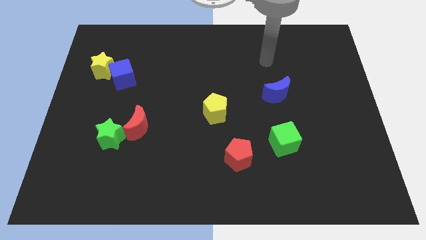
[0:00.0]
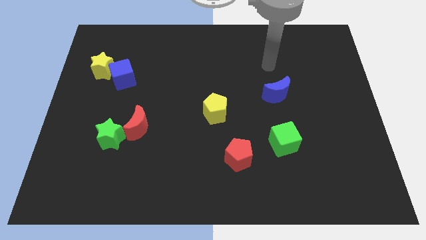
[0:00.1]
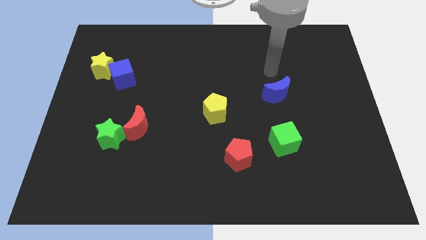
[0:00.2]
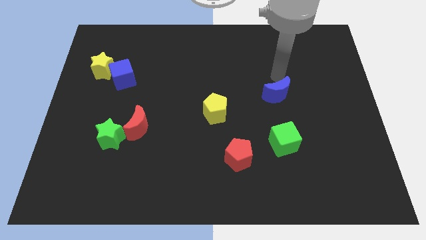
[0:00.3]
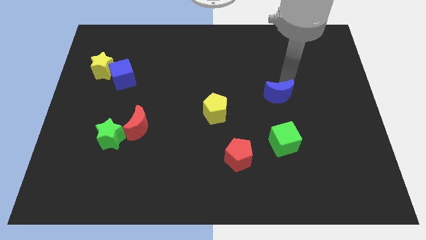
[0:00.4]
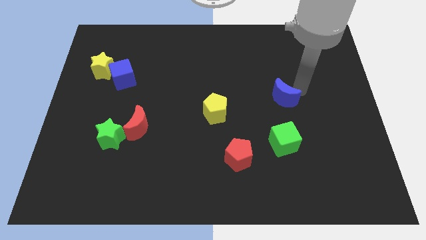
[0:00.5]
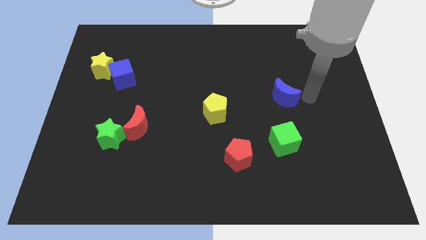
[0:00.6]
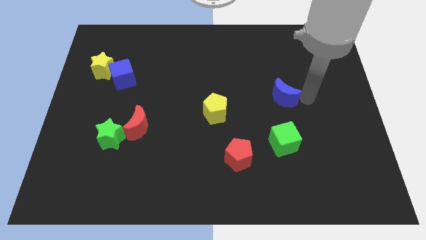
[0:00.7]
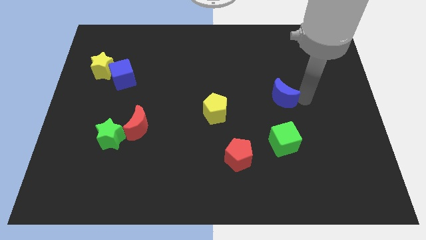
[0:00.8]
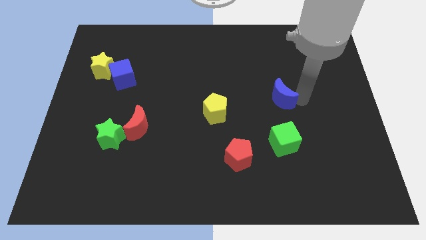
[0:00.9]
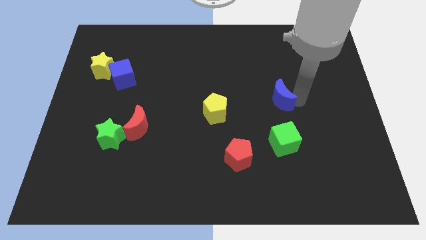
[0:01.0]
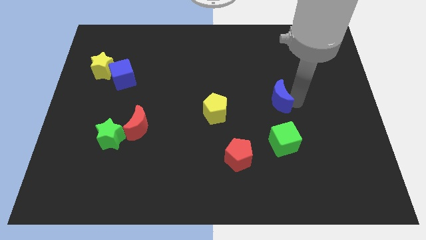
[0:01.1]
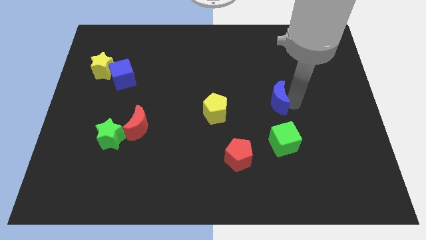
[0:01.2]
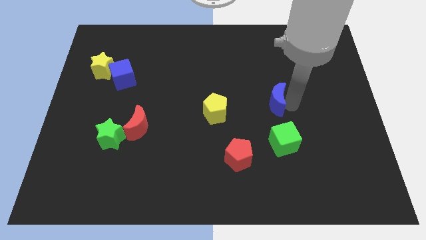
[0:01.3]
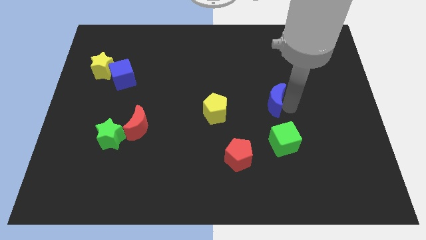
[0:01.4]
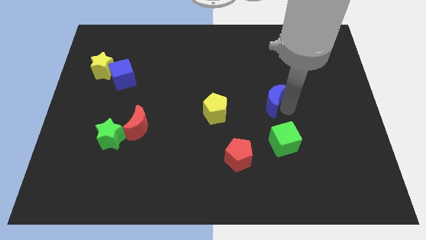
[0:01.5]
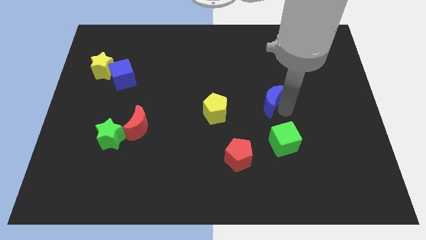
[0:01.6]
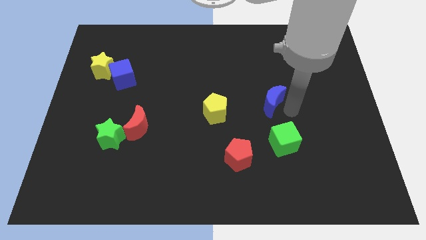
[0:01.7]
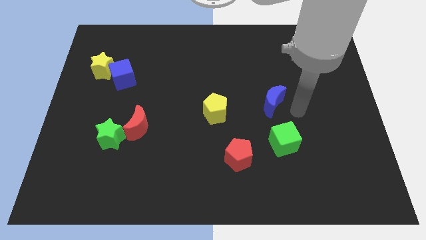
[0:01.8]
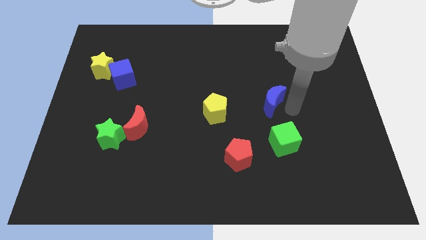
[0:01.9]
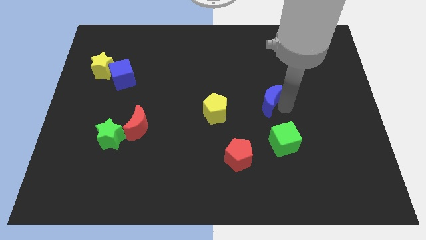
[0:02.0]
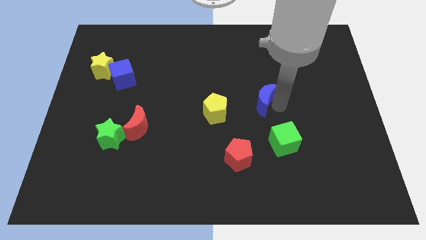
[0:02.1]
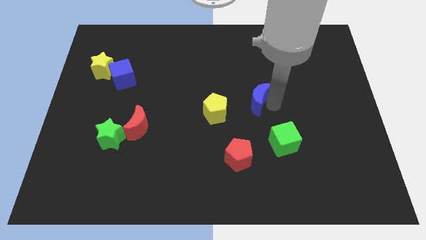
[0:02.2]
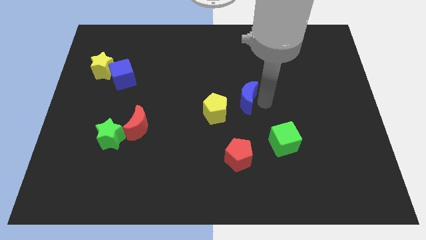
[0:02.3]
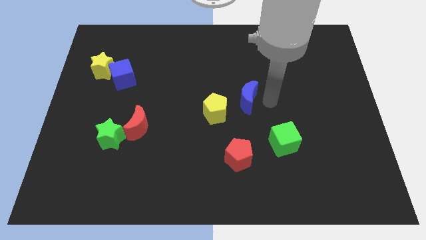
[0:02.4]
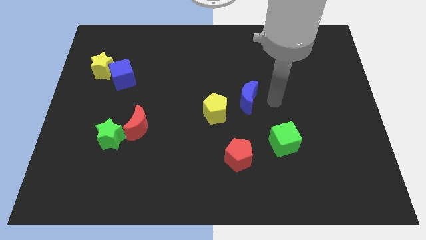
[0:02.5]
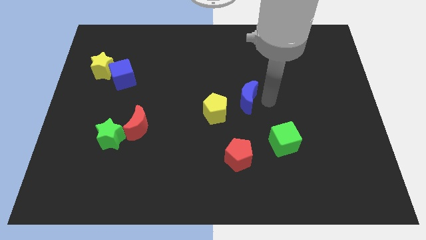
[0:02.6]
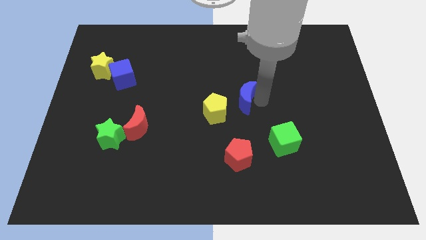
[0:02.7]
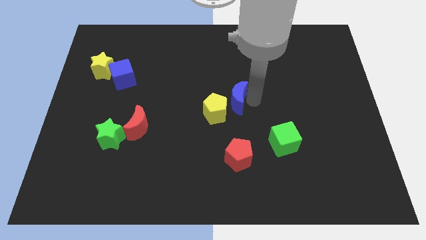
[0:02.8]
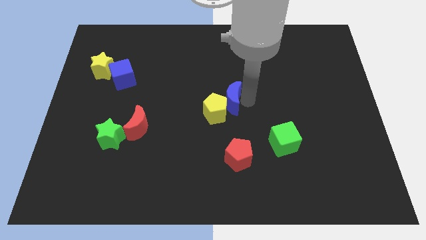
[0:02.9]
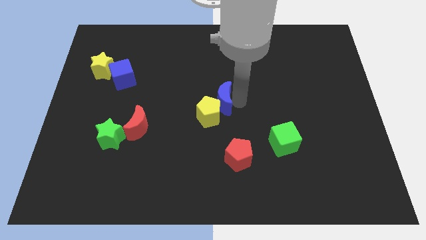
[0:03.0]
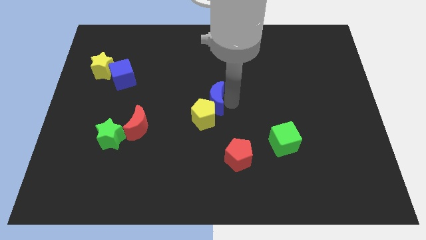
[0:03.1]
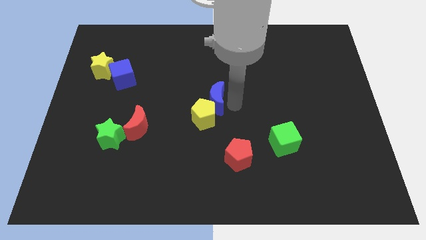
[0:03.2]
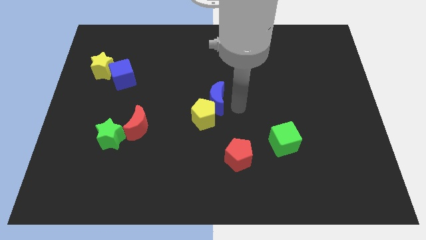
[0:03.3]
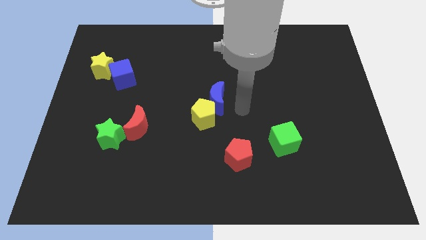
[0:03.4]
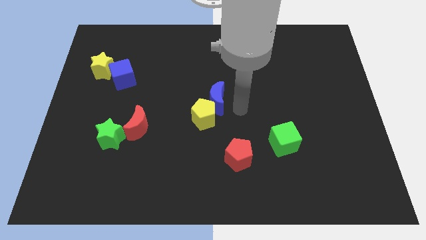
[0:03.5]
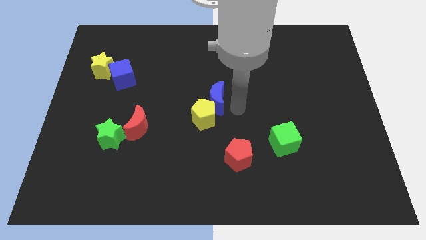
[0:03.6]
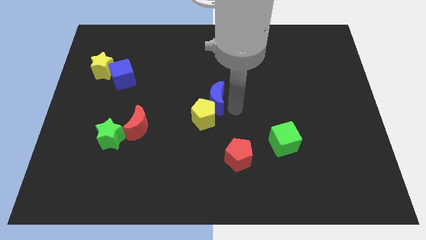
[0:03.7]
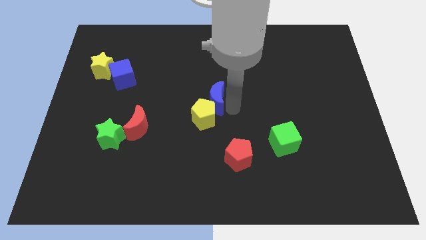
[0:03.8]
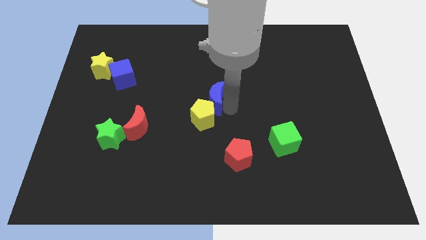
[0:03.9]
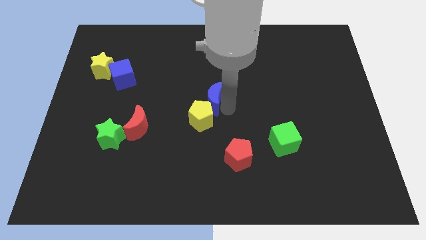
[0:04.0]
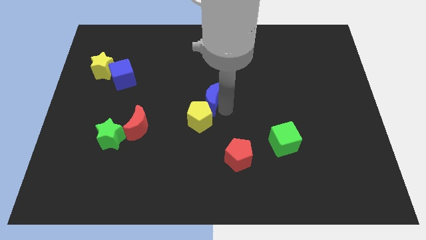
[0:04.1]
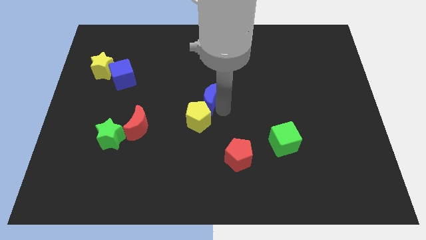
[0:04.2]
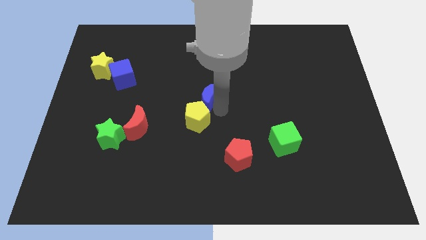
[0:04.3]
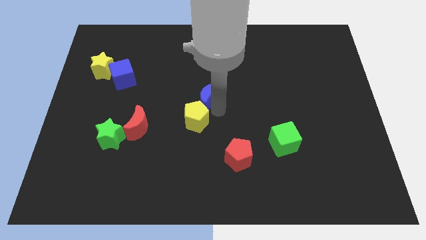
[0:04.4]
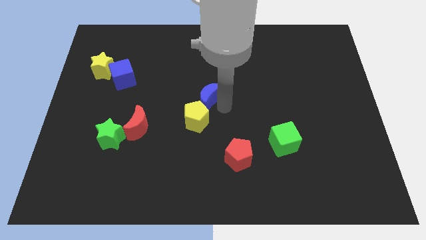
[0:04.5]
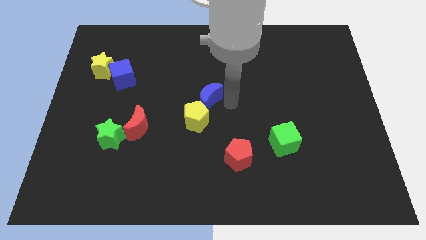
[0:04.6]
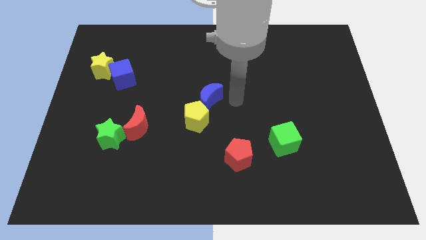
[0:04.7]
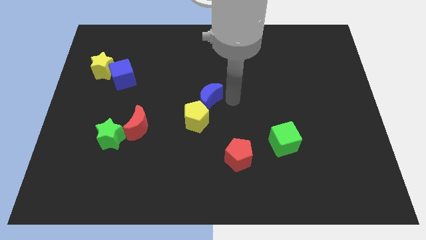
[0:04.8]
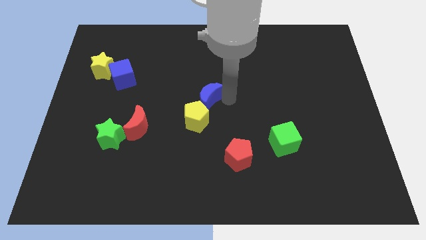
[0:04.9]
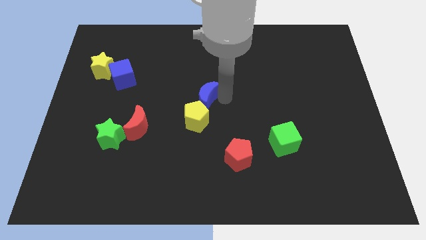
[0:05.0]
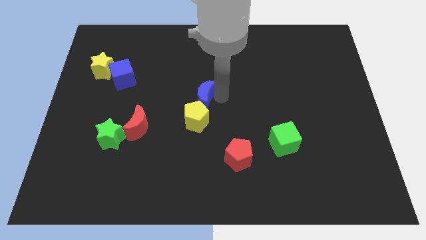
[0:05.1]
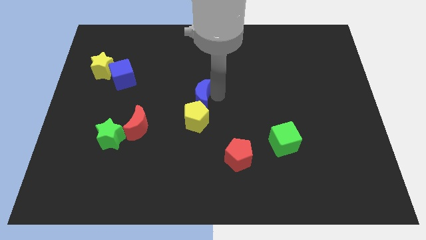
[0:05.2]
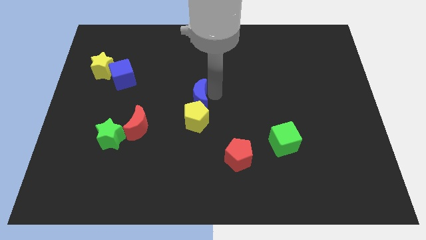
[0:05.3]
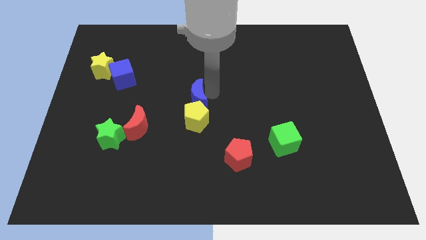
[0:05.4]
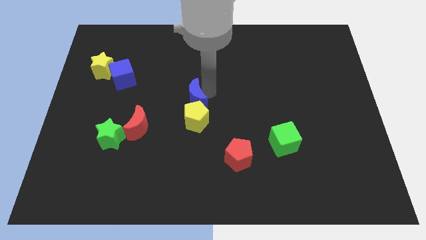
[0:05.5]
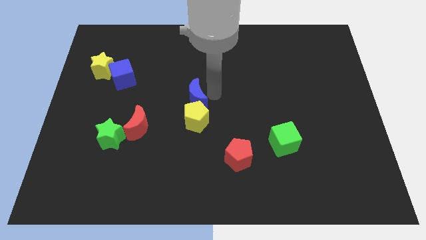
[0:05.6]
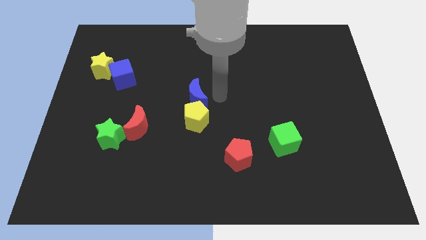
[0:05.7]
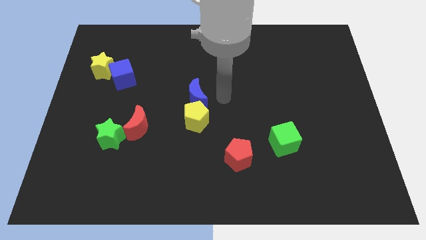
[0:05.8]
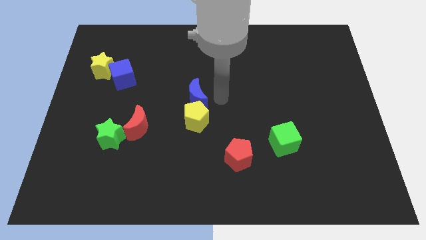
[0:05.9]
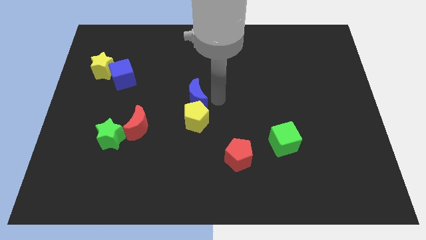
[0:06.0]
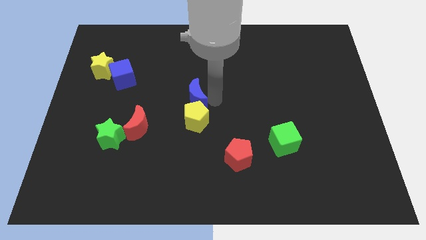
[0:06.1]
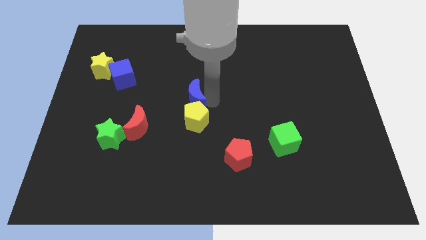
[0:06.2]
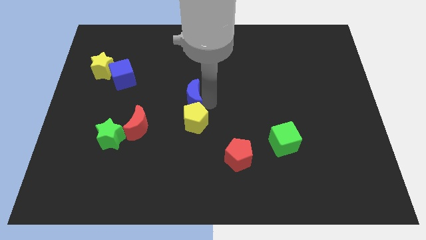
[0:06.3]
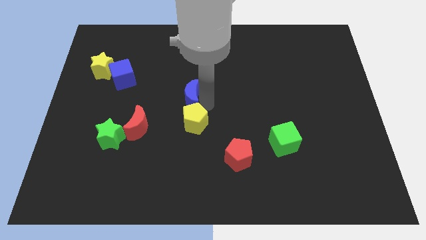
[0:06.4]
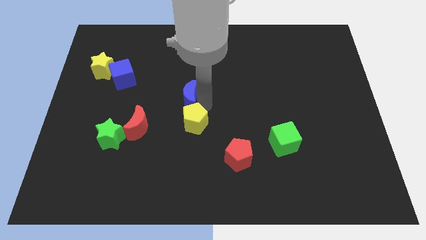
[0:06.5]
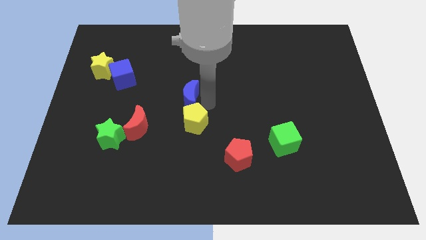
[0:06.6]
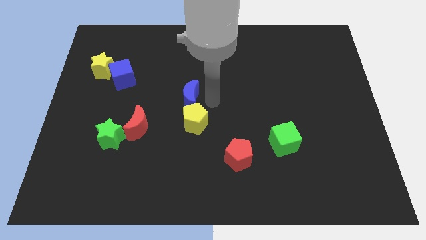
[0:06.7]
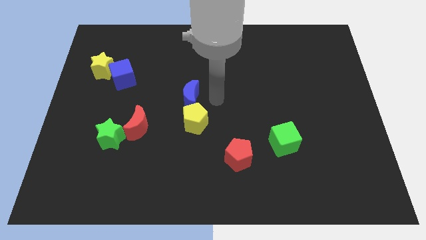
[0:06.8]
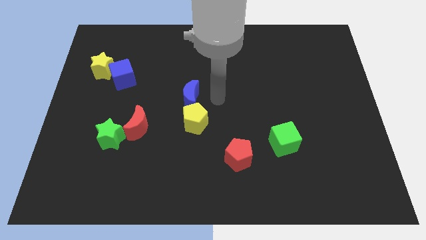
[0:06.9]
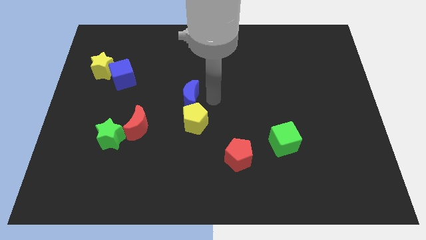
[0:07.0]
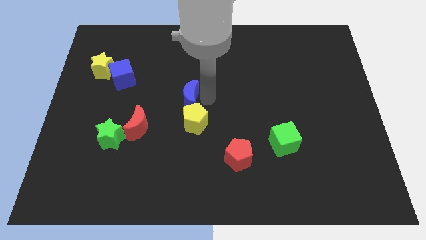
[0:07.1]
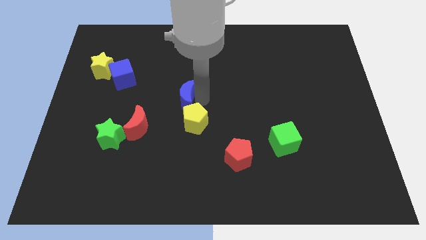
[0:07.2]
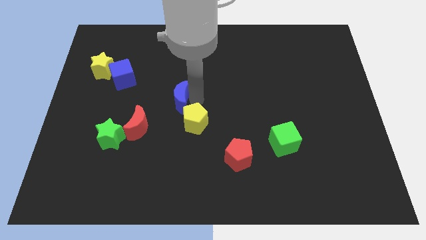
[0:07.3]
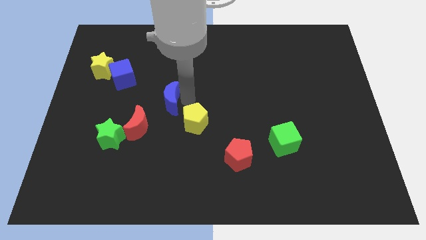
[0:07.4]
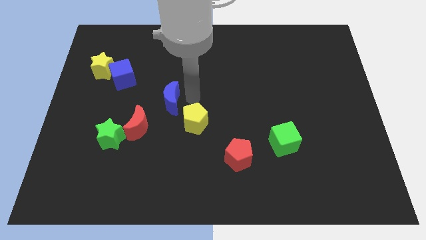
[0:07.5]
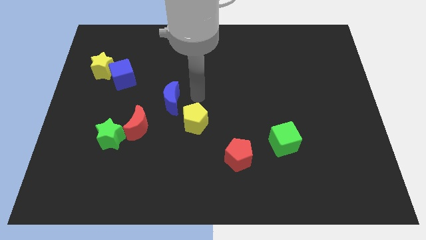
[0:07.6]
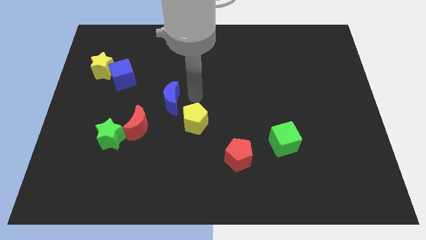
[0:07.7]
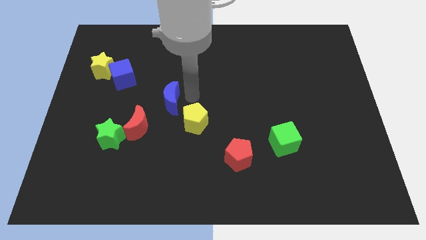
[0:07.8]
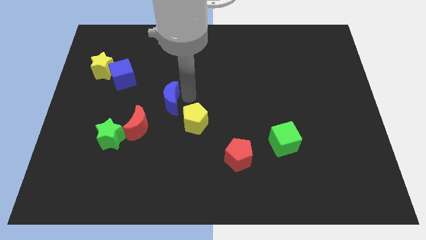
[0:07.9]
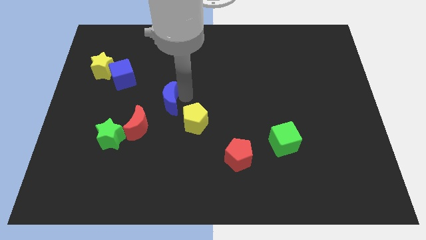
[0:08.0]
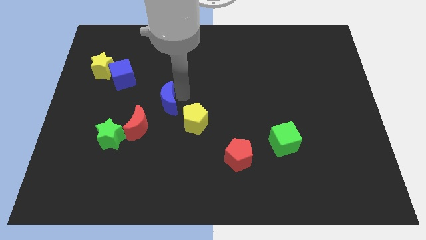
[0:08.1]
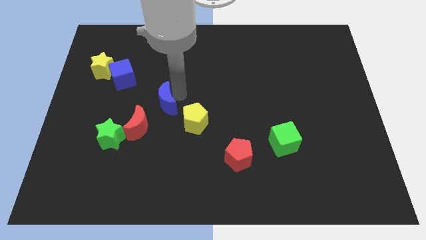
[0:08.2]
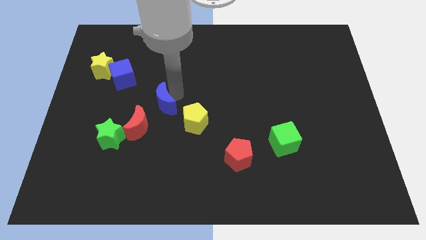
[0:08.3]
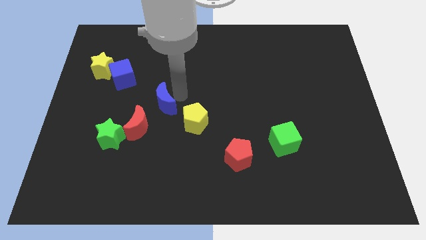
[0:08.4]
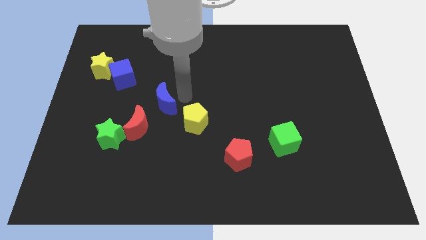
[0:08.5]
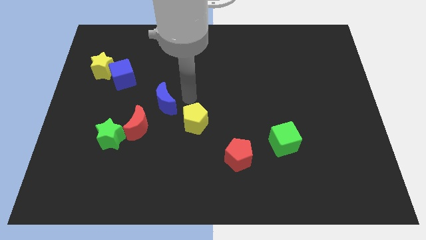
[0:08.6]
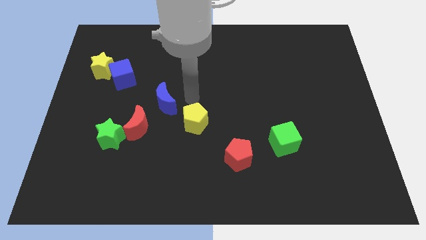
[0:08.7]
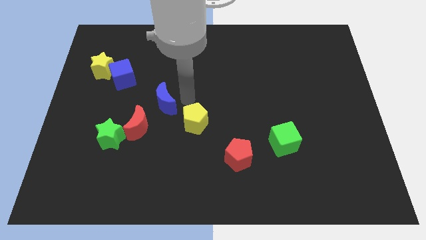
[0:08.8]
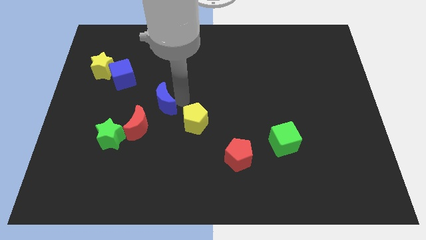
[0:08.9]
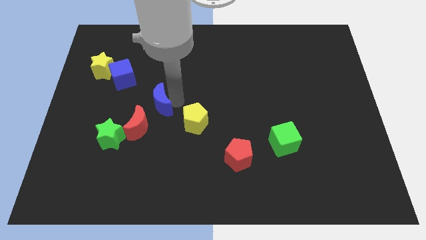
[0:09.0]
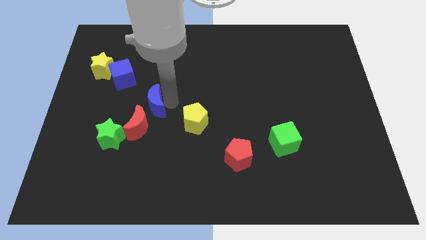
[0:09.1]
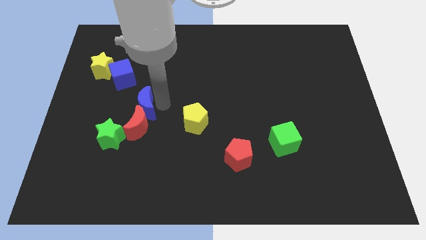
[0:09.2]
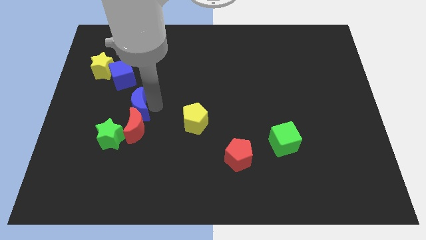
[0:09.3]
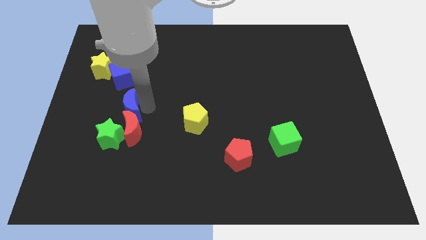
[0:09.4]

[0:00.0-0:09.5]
slide the blue moon to the bottom of the blue cube
